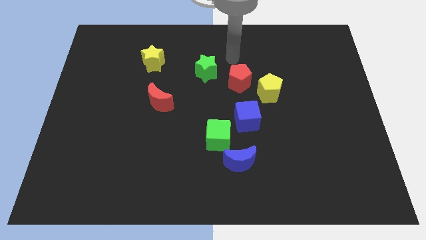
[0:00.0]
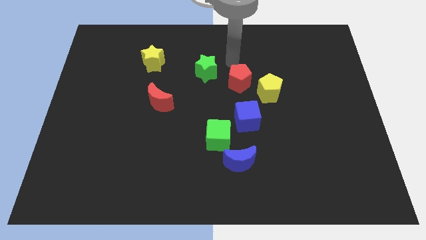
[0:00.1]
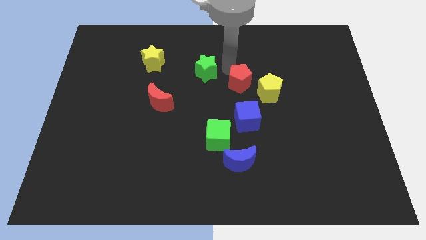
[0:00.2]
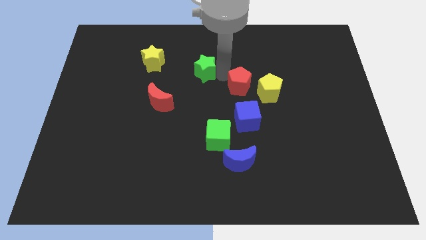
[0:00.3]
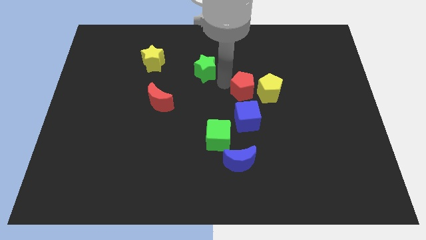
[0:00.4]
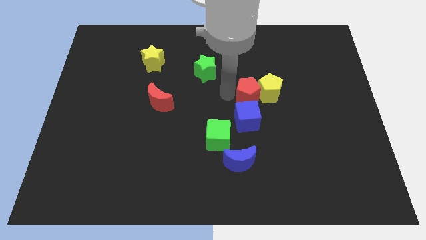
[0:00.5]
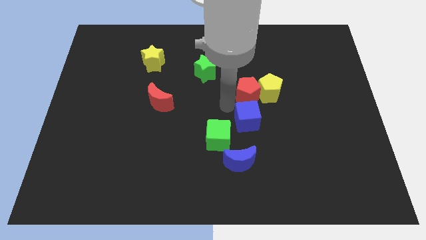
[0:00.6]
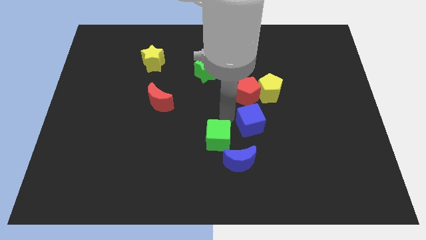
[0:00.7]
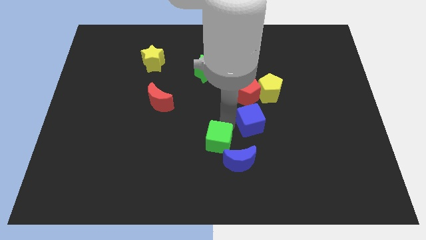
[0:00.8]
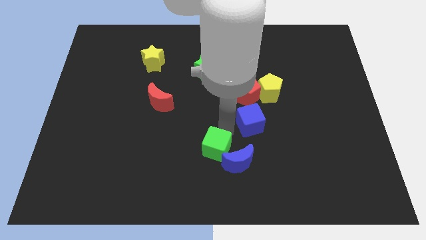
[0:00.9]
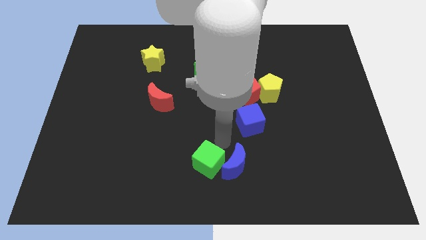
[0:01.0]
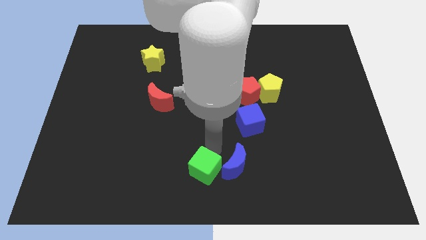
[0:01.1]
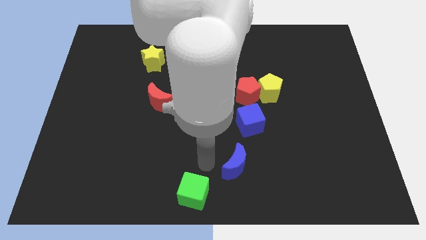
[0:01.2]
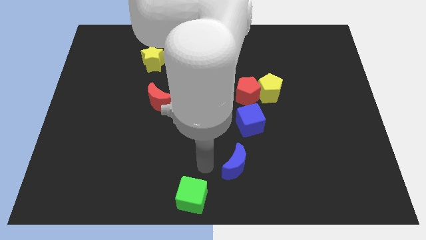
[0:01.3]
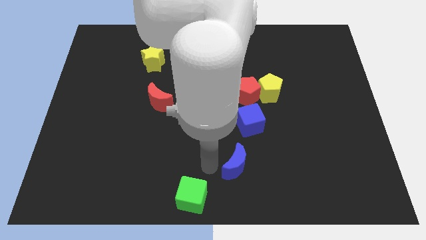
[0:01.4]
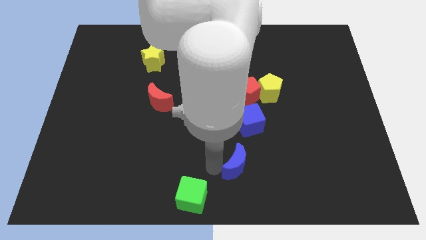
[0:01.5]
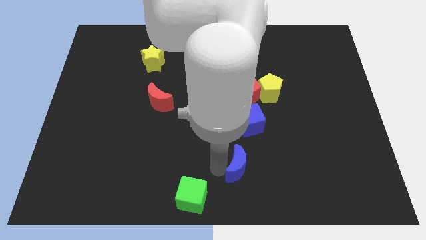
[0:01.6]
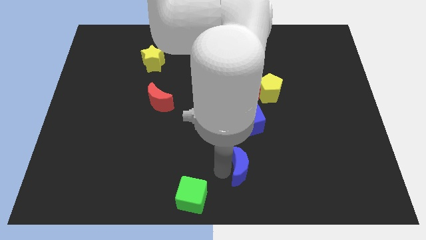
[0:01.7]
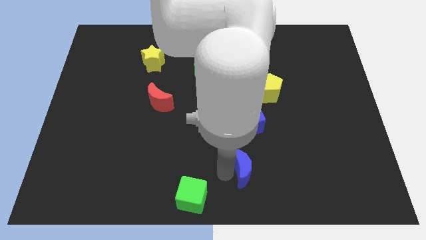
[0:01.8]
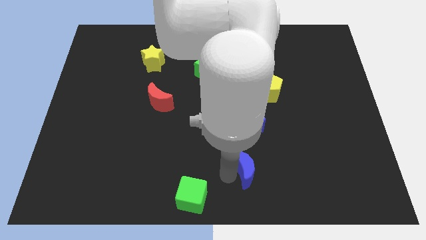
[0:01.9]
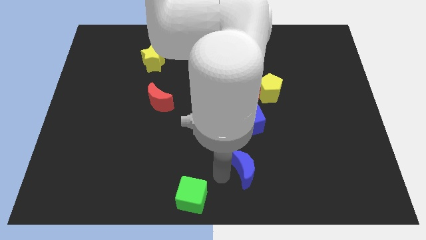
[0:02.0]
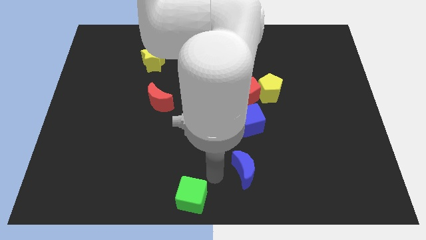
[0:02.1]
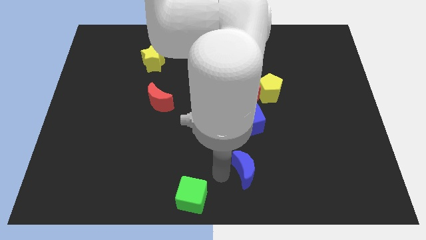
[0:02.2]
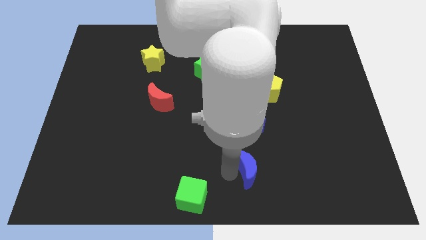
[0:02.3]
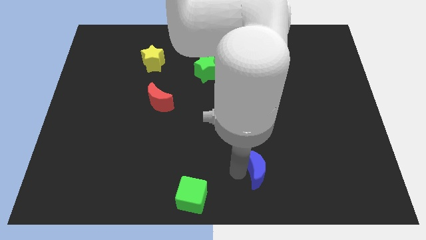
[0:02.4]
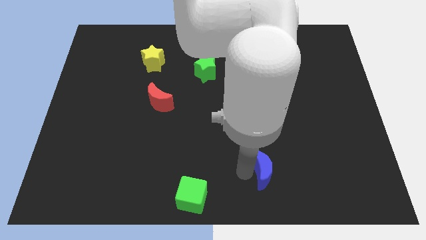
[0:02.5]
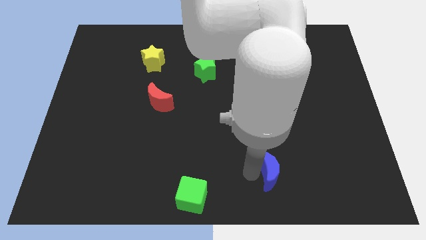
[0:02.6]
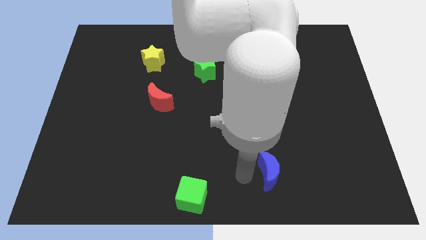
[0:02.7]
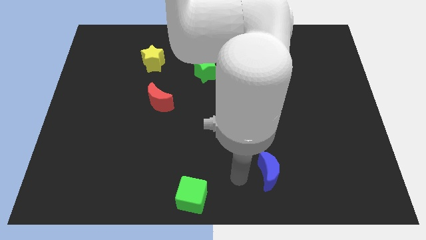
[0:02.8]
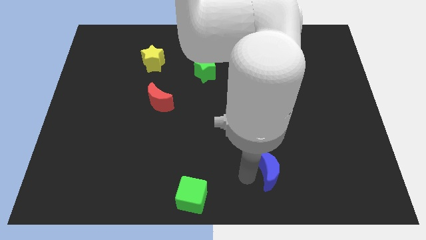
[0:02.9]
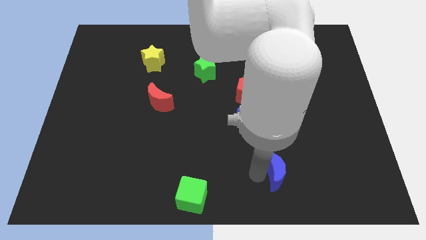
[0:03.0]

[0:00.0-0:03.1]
push the blue moon a little bit to the right

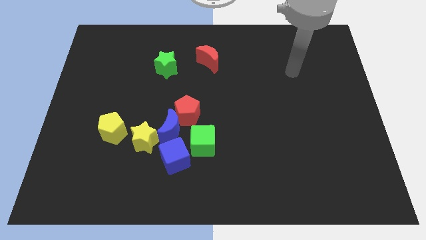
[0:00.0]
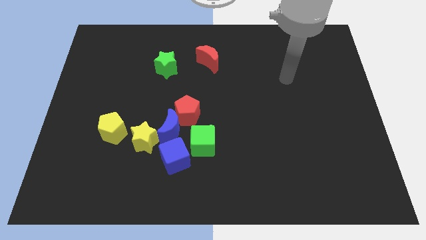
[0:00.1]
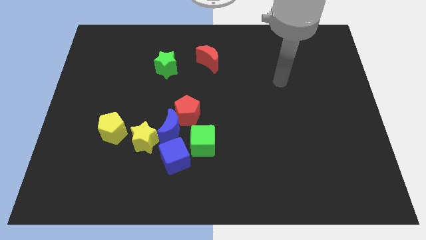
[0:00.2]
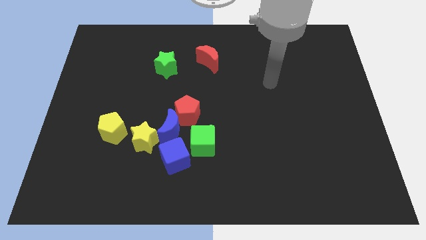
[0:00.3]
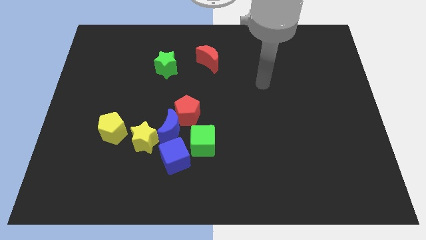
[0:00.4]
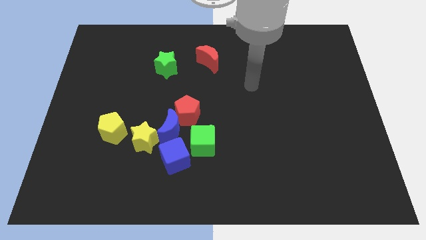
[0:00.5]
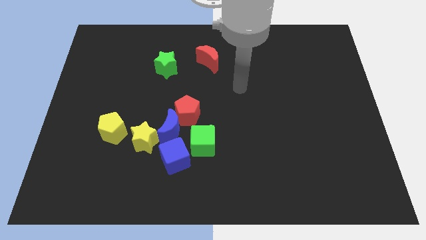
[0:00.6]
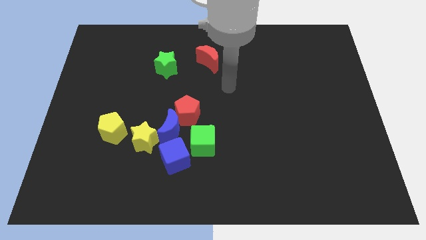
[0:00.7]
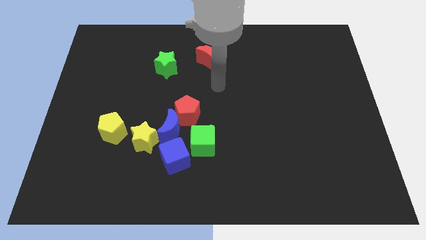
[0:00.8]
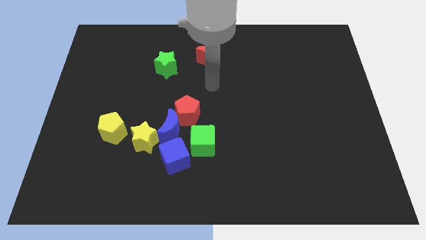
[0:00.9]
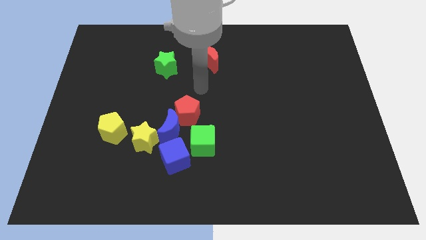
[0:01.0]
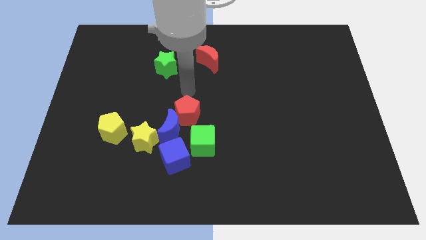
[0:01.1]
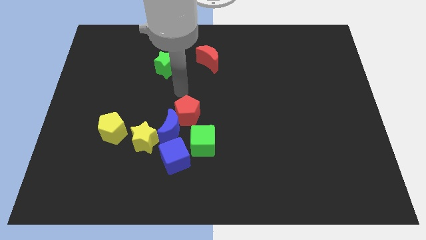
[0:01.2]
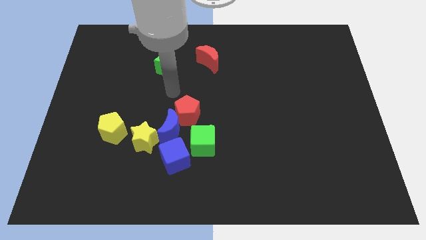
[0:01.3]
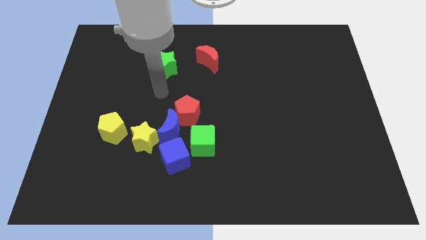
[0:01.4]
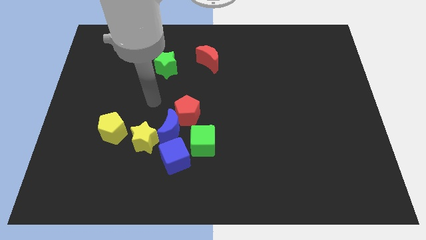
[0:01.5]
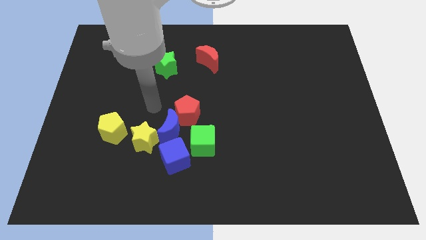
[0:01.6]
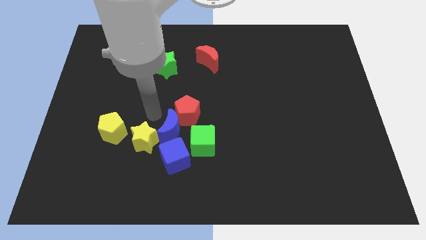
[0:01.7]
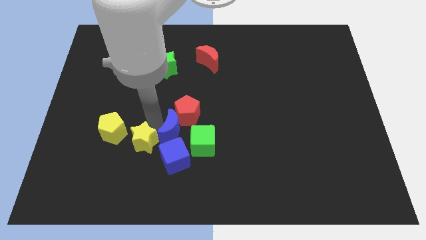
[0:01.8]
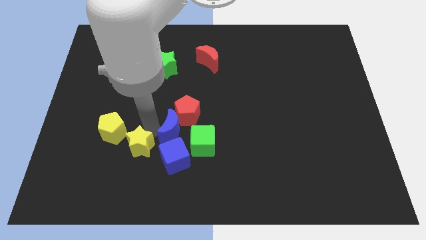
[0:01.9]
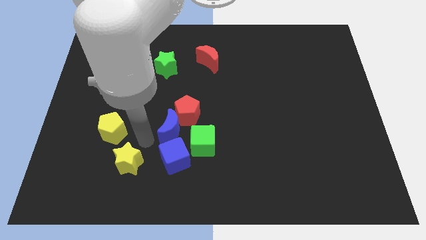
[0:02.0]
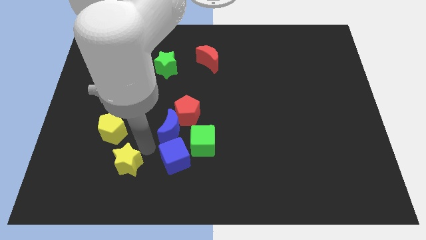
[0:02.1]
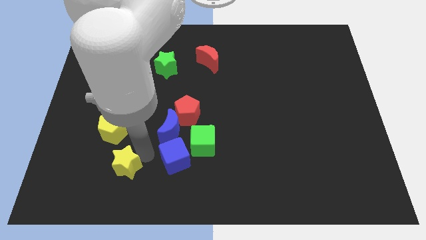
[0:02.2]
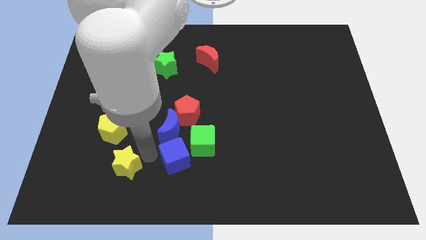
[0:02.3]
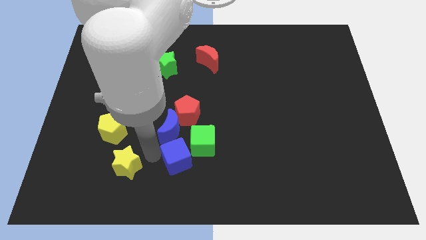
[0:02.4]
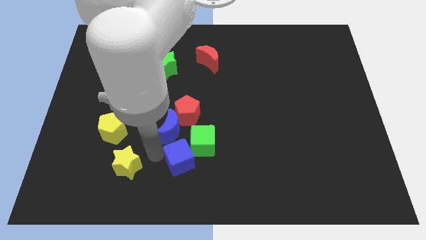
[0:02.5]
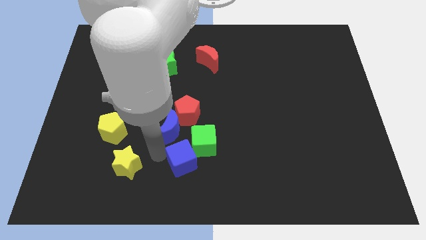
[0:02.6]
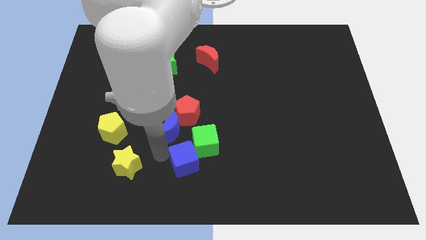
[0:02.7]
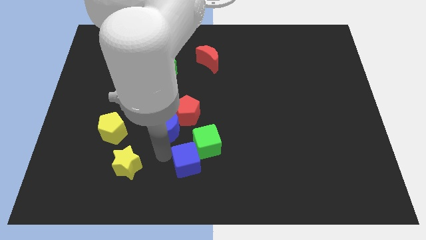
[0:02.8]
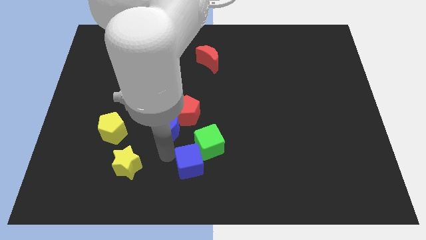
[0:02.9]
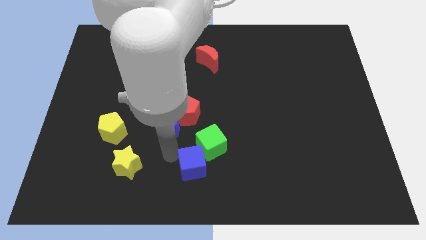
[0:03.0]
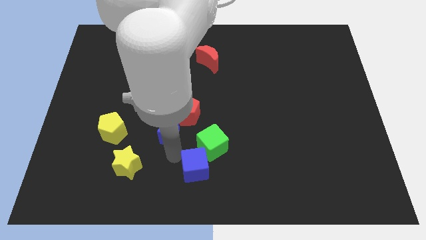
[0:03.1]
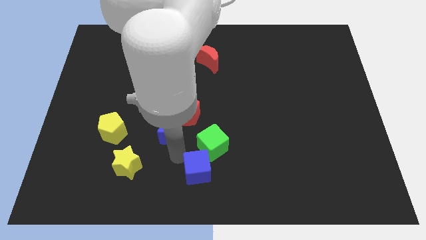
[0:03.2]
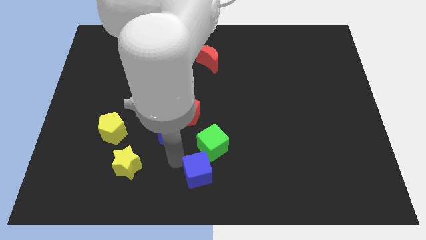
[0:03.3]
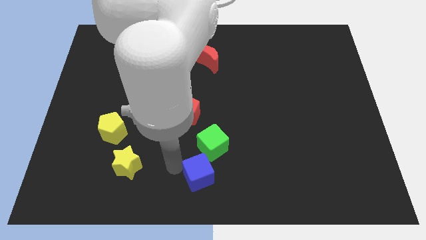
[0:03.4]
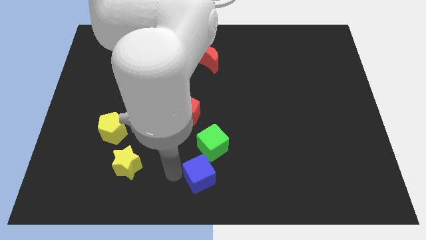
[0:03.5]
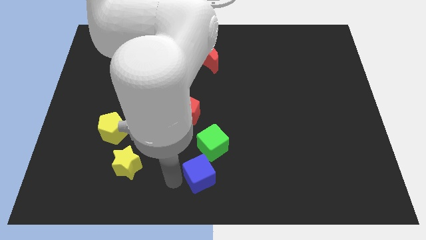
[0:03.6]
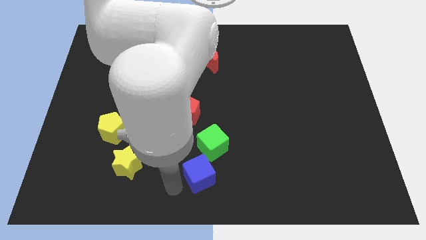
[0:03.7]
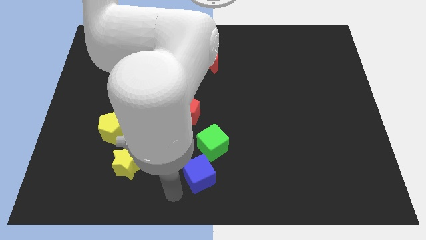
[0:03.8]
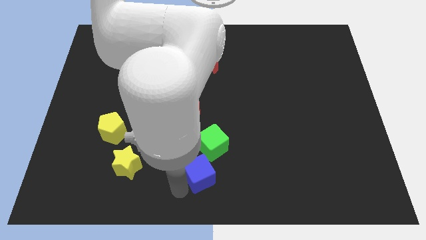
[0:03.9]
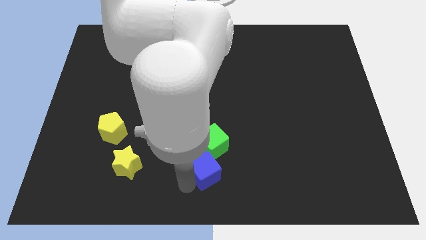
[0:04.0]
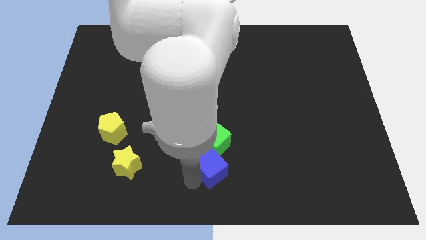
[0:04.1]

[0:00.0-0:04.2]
slide the blue cube slightly right

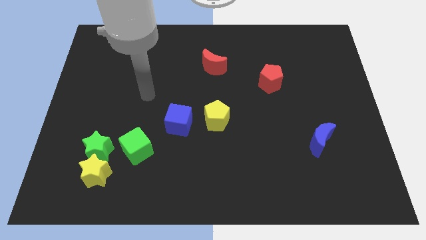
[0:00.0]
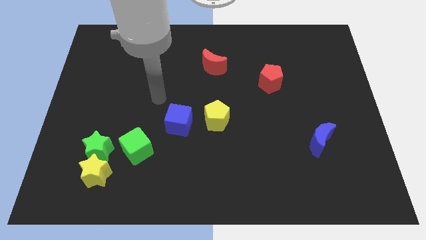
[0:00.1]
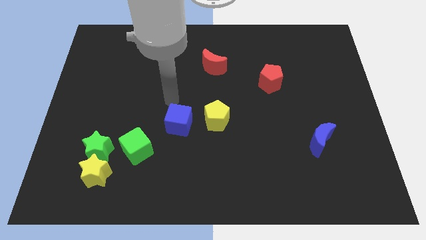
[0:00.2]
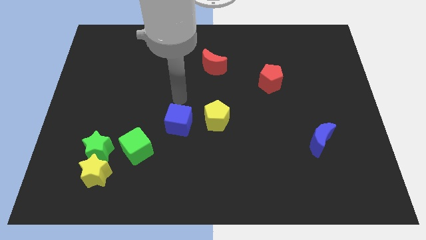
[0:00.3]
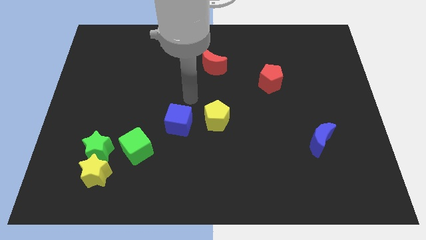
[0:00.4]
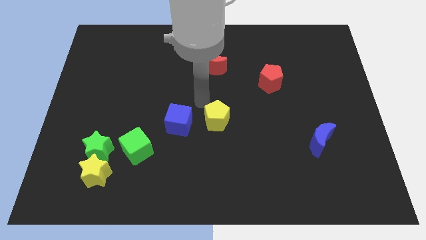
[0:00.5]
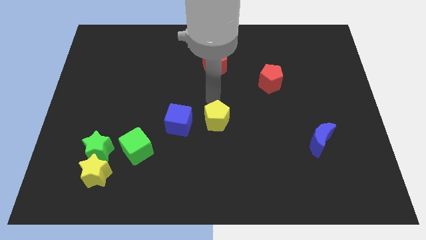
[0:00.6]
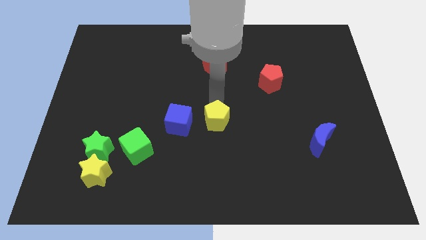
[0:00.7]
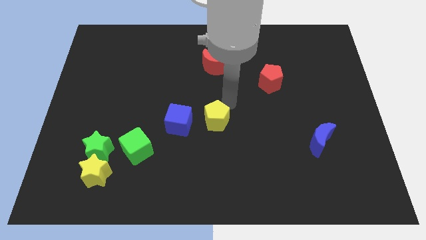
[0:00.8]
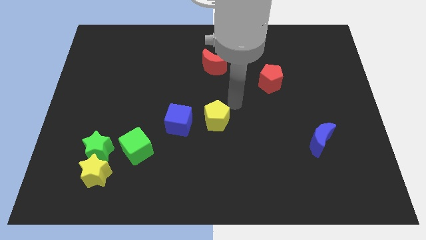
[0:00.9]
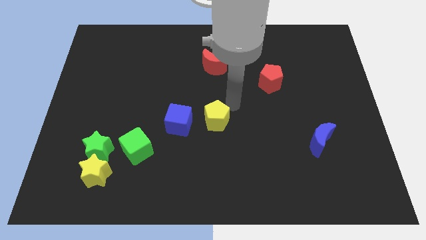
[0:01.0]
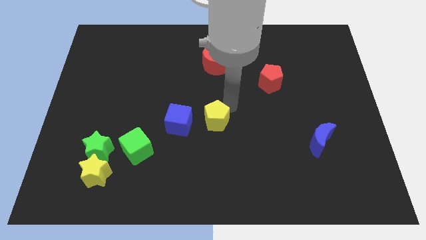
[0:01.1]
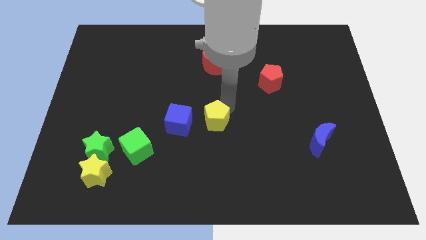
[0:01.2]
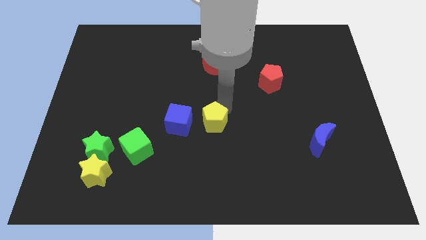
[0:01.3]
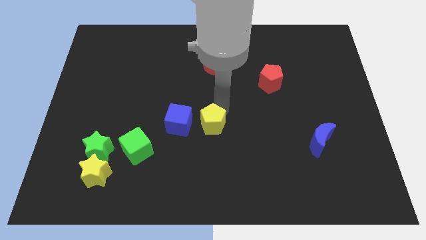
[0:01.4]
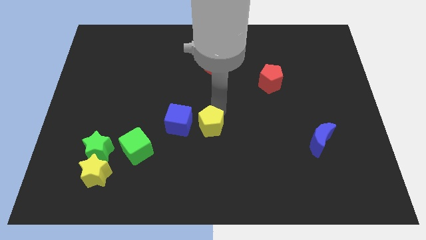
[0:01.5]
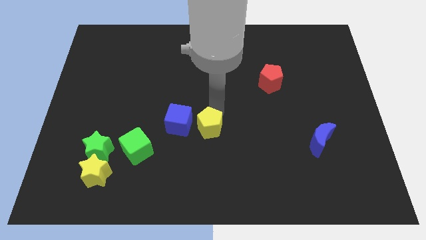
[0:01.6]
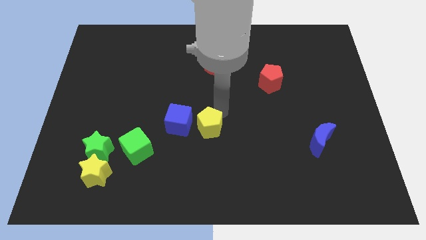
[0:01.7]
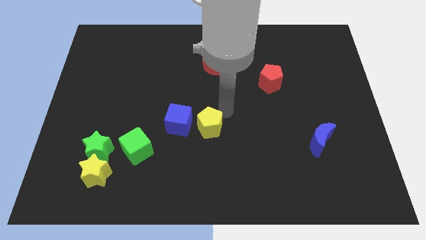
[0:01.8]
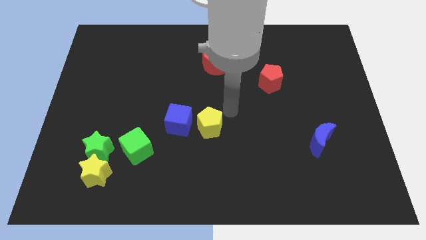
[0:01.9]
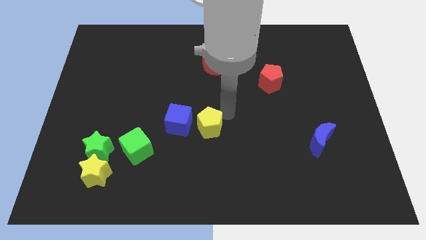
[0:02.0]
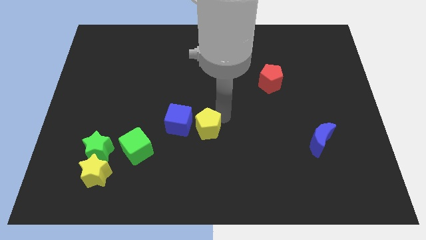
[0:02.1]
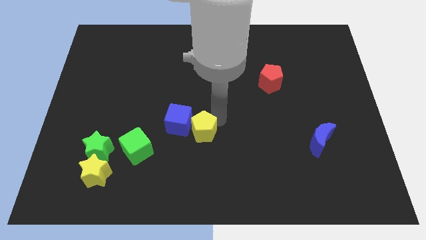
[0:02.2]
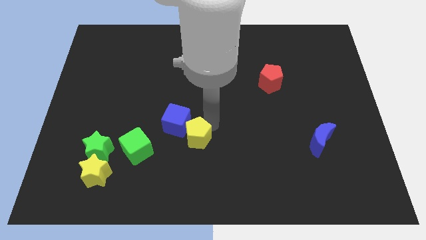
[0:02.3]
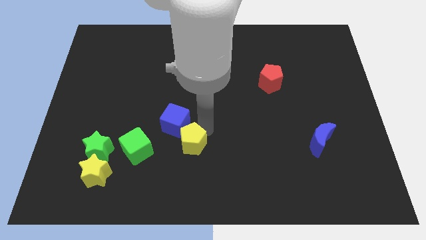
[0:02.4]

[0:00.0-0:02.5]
move the yellow pentagon a little bit down and to the left diagonally
